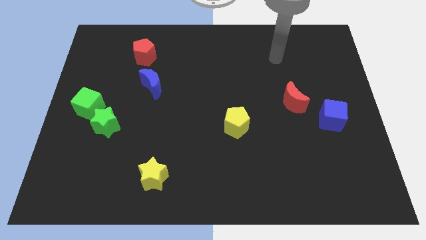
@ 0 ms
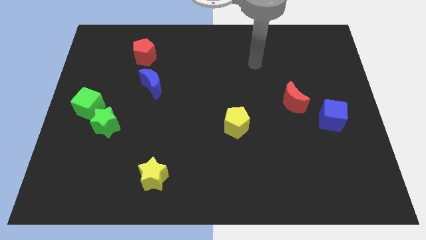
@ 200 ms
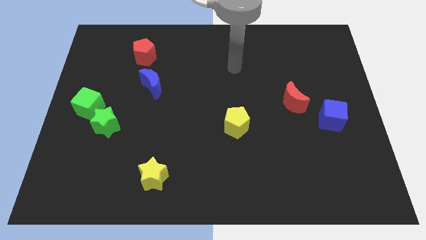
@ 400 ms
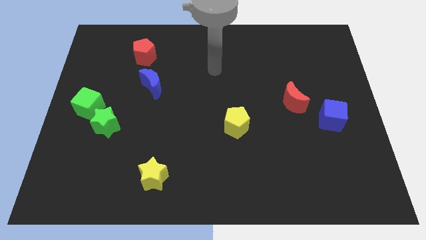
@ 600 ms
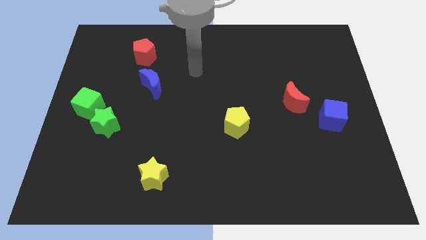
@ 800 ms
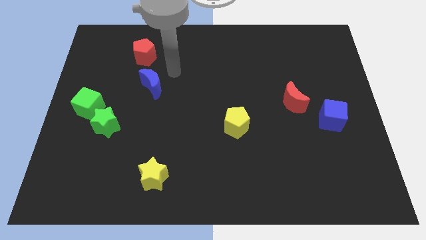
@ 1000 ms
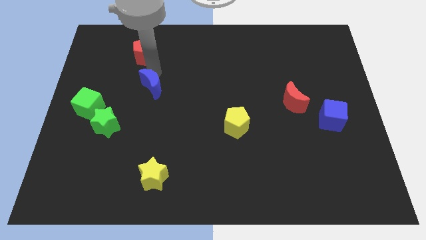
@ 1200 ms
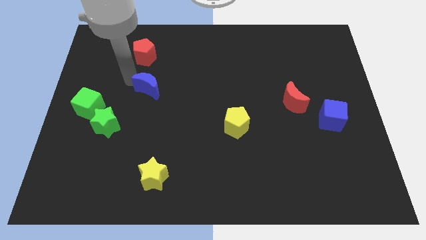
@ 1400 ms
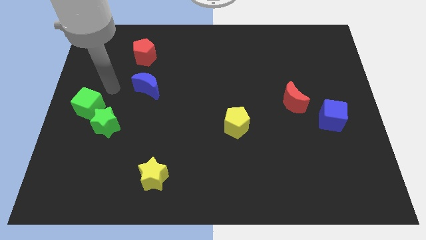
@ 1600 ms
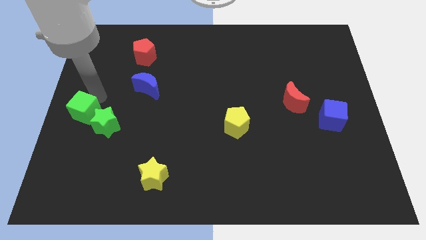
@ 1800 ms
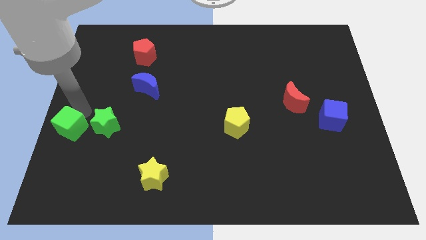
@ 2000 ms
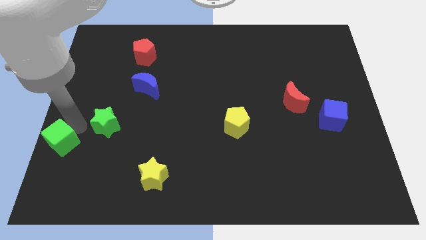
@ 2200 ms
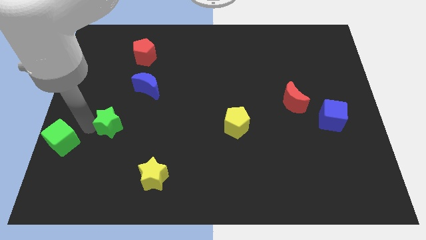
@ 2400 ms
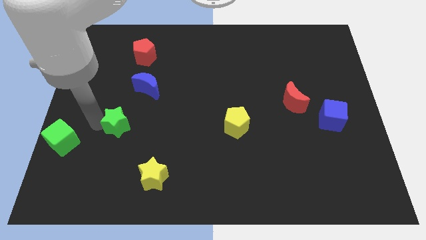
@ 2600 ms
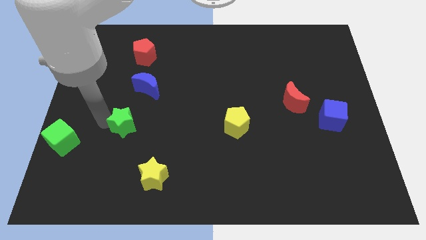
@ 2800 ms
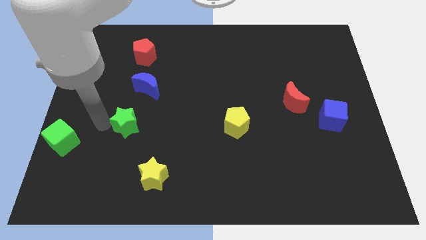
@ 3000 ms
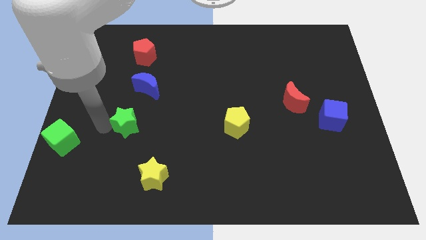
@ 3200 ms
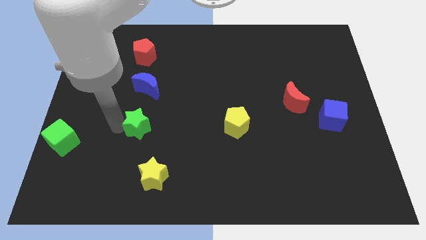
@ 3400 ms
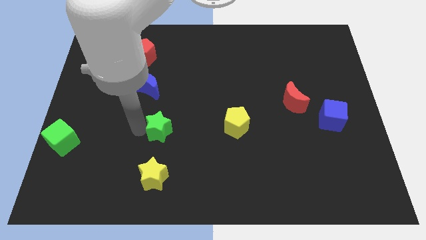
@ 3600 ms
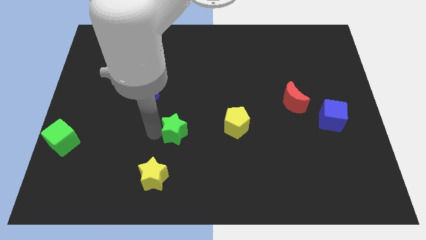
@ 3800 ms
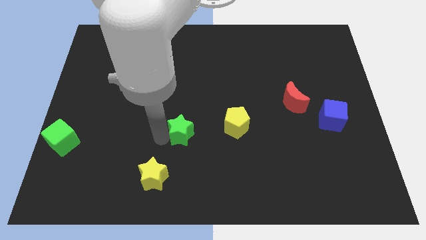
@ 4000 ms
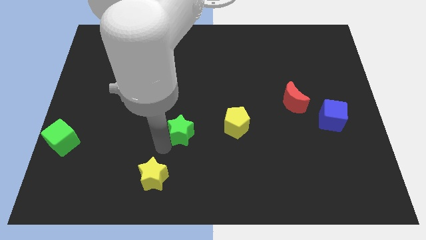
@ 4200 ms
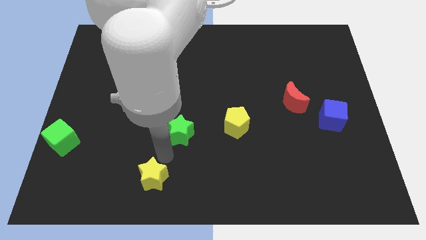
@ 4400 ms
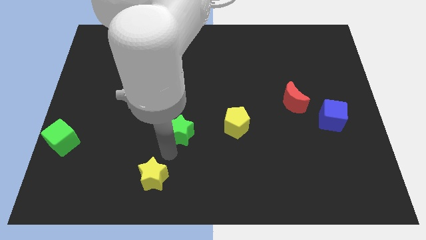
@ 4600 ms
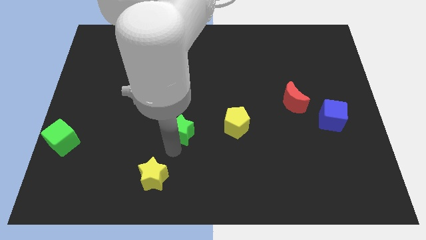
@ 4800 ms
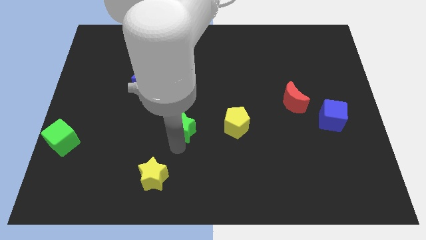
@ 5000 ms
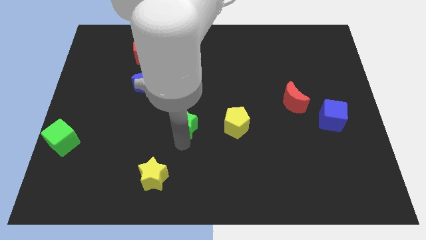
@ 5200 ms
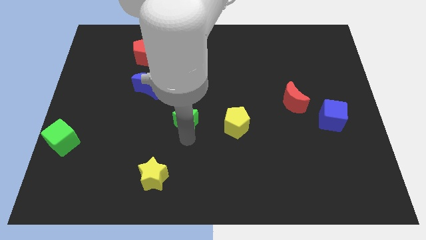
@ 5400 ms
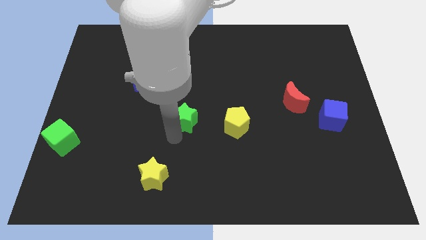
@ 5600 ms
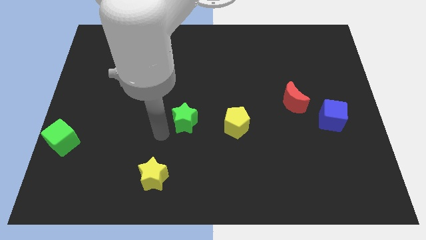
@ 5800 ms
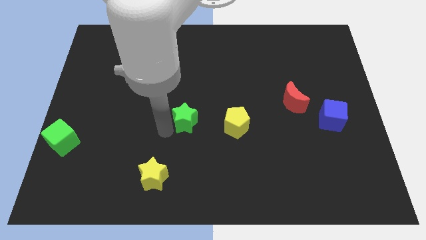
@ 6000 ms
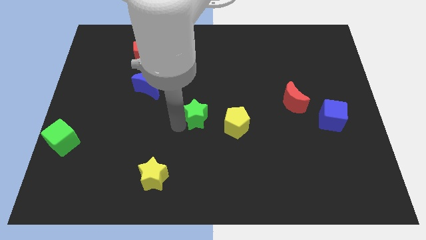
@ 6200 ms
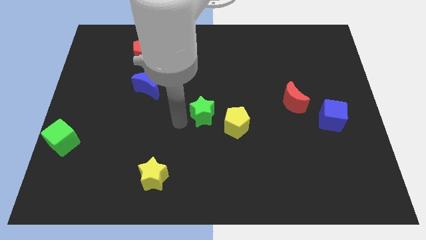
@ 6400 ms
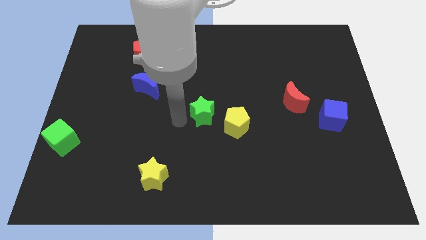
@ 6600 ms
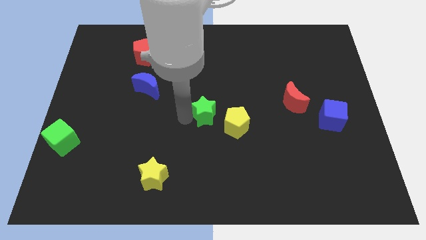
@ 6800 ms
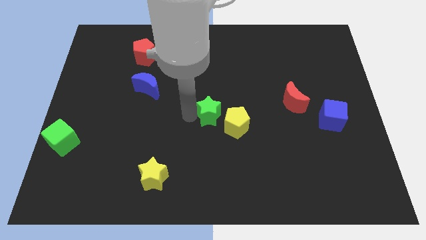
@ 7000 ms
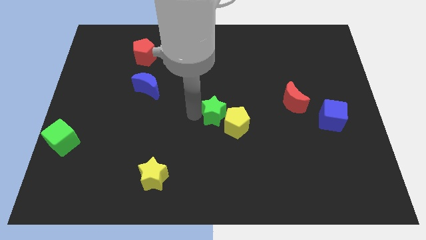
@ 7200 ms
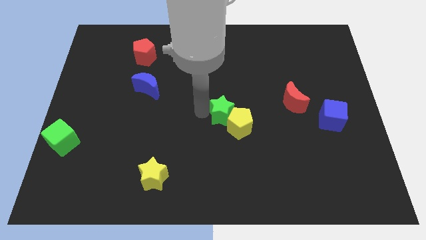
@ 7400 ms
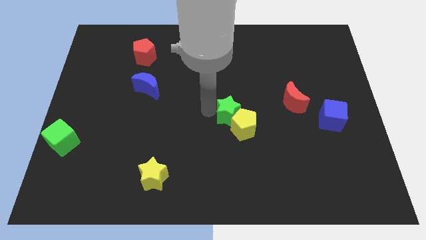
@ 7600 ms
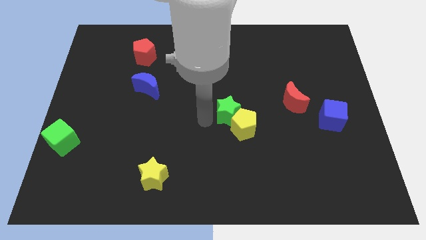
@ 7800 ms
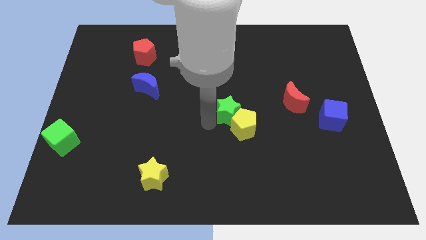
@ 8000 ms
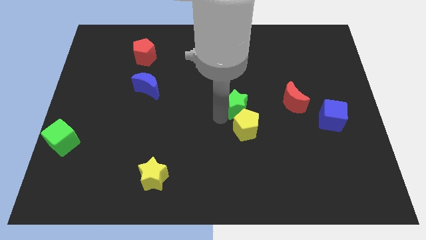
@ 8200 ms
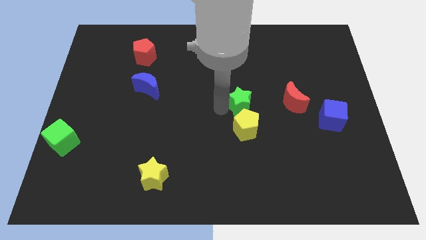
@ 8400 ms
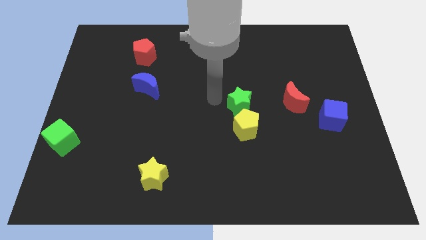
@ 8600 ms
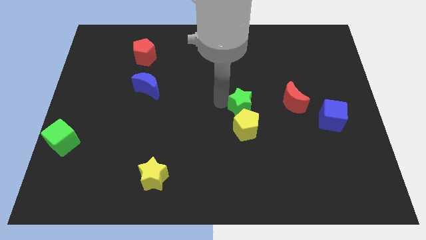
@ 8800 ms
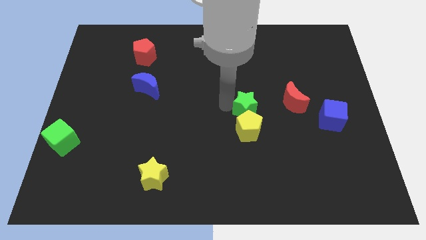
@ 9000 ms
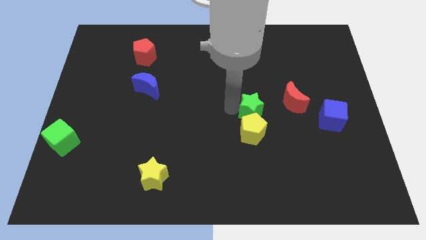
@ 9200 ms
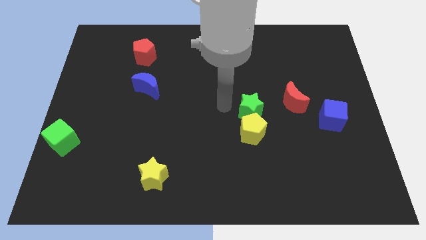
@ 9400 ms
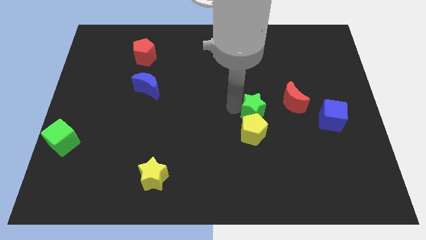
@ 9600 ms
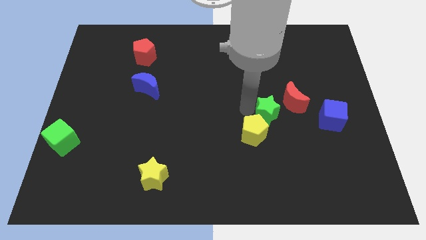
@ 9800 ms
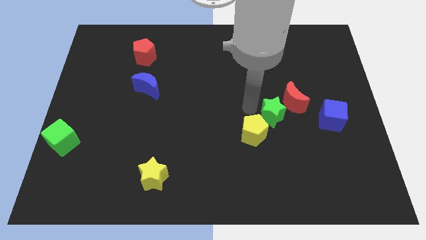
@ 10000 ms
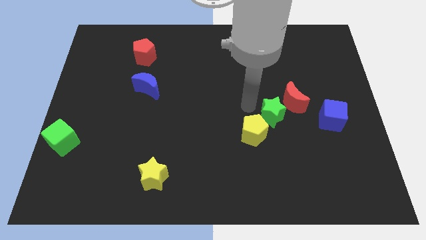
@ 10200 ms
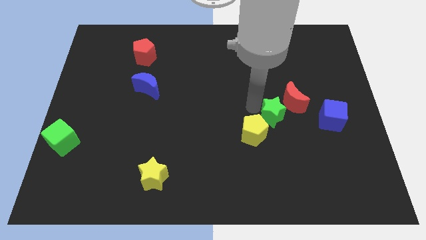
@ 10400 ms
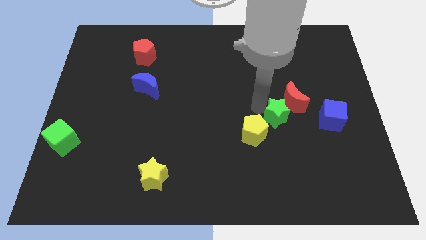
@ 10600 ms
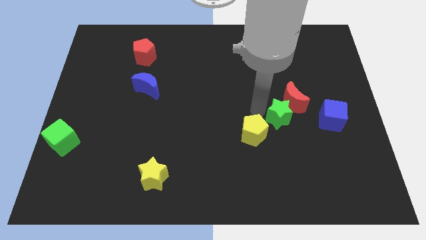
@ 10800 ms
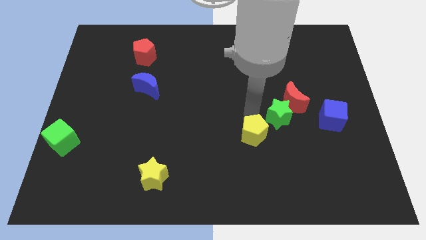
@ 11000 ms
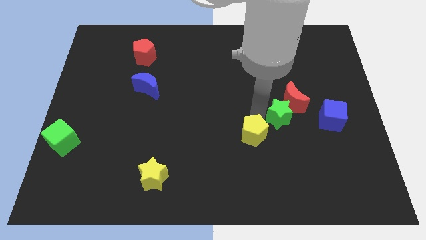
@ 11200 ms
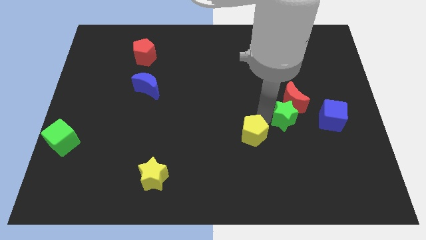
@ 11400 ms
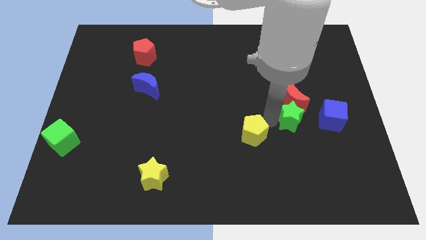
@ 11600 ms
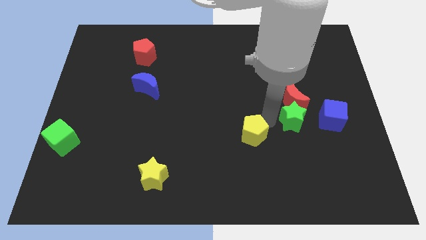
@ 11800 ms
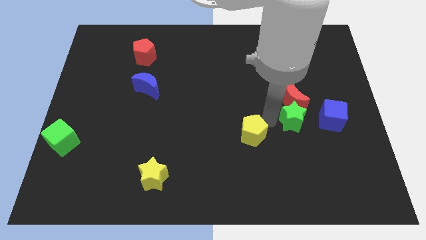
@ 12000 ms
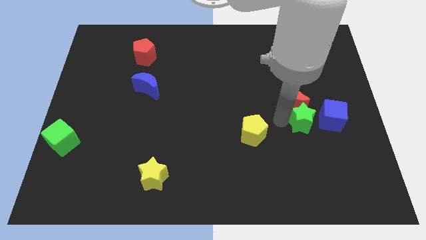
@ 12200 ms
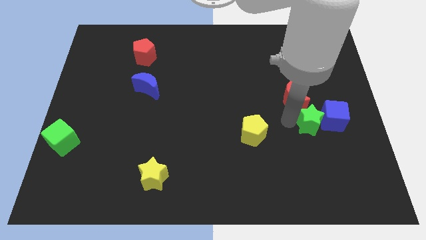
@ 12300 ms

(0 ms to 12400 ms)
slide the green star close to the blue cube
